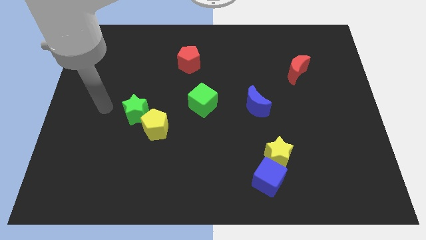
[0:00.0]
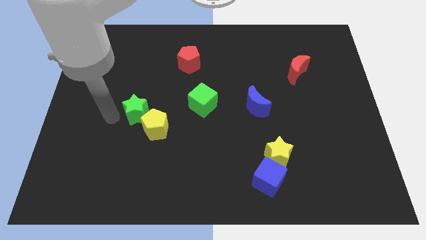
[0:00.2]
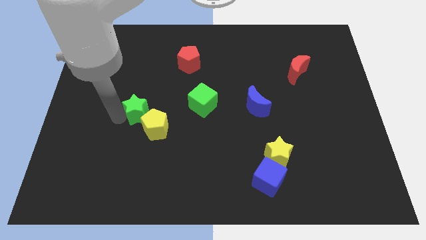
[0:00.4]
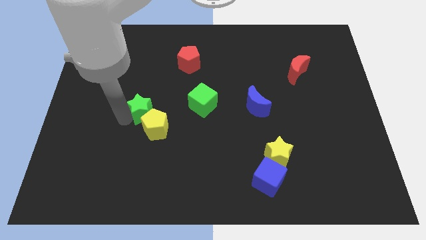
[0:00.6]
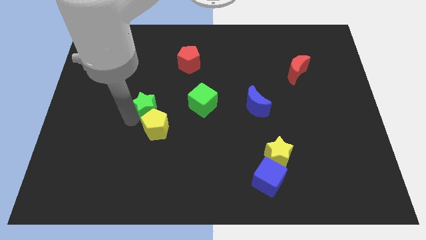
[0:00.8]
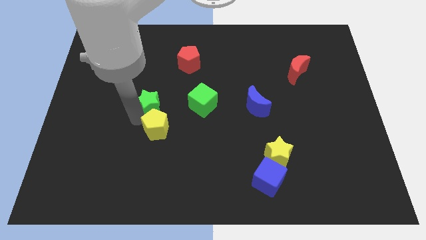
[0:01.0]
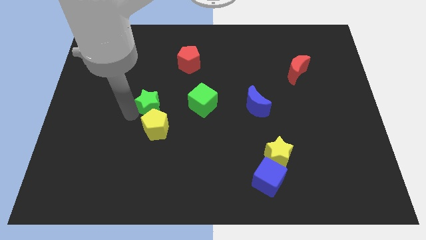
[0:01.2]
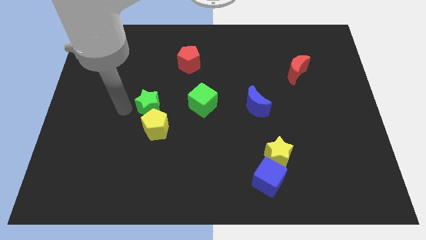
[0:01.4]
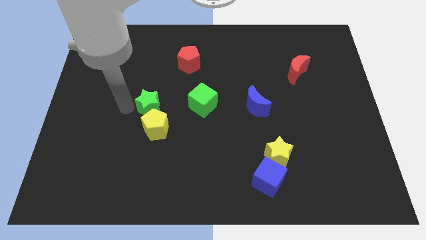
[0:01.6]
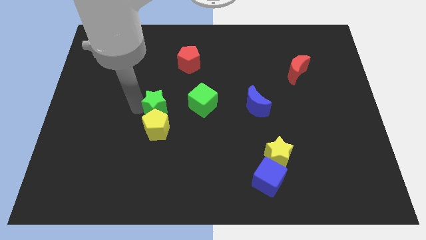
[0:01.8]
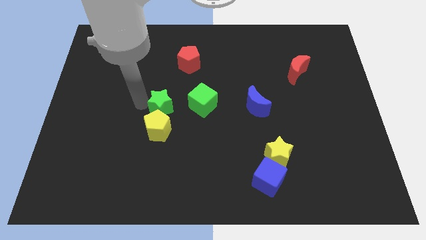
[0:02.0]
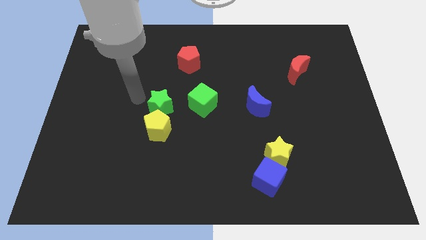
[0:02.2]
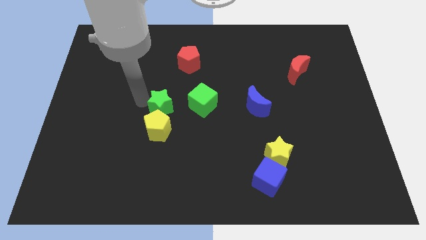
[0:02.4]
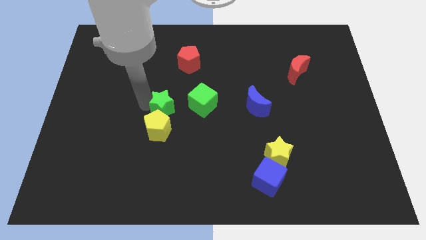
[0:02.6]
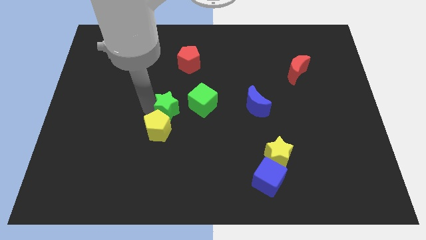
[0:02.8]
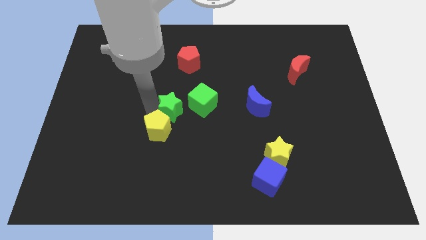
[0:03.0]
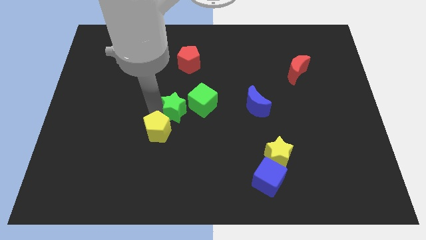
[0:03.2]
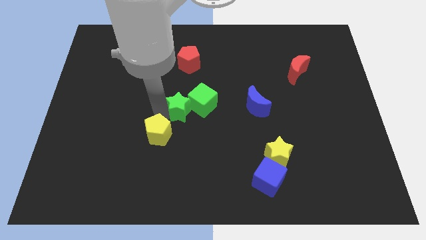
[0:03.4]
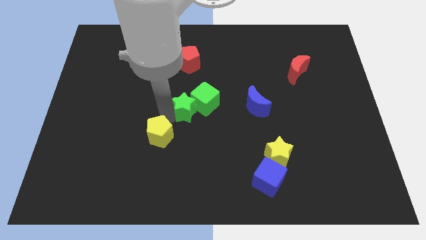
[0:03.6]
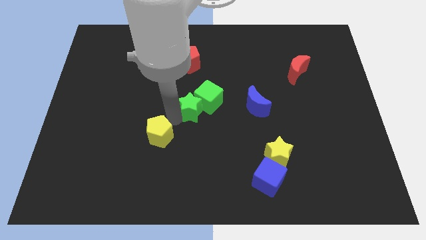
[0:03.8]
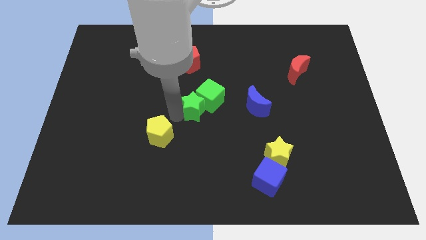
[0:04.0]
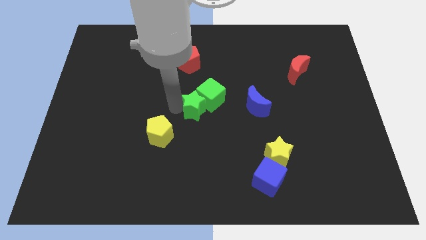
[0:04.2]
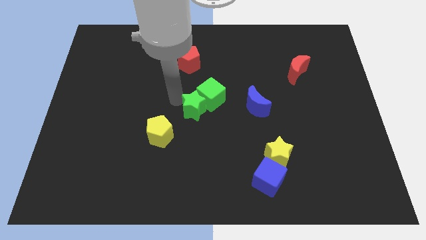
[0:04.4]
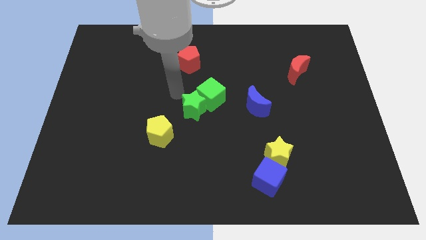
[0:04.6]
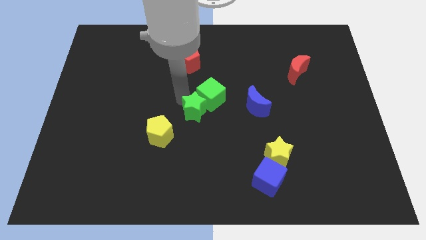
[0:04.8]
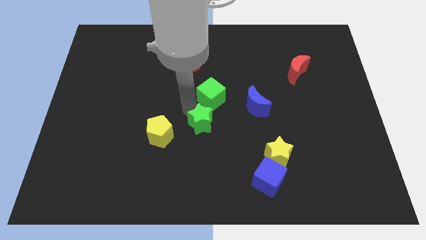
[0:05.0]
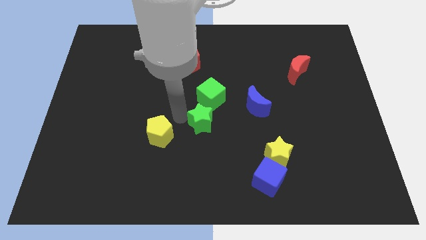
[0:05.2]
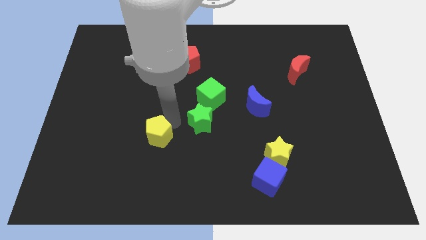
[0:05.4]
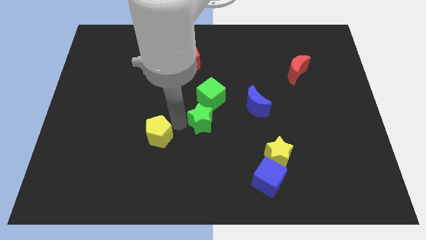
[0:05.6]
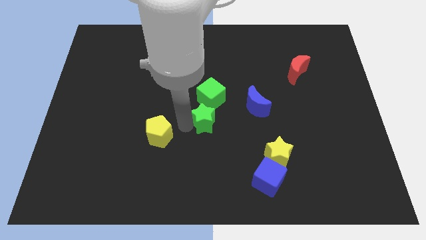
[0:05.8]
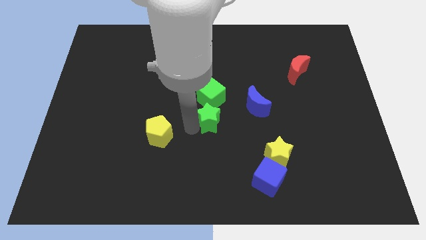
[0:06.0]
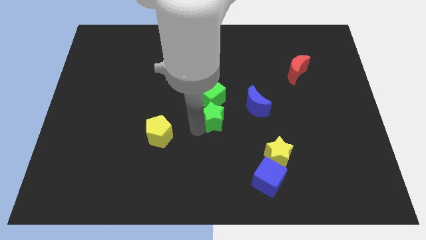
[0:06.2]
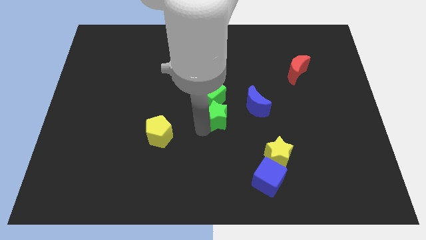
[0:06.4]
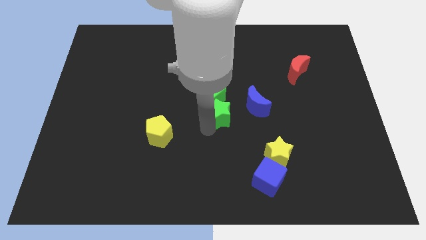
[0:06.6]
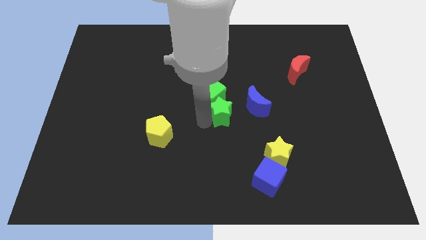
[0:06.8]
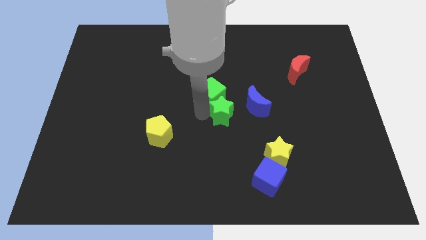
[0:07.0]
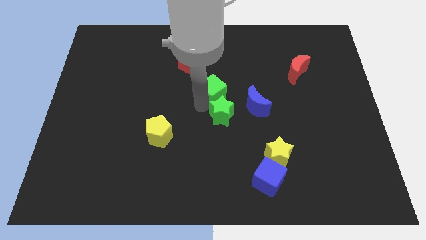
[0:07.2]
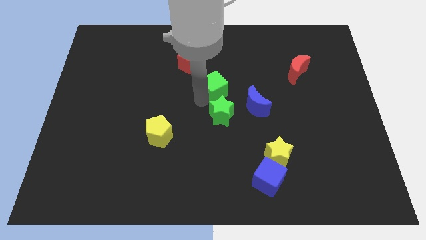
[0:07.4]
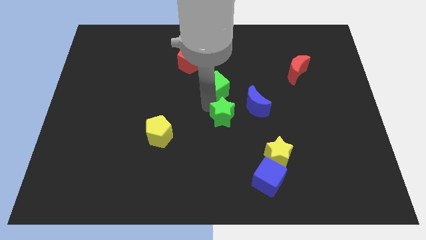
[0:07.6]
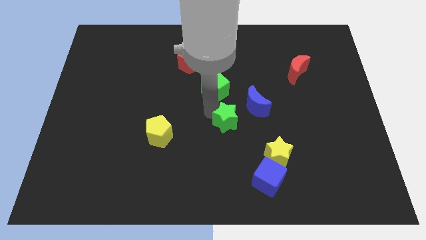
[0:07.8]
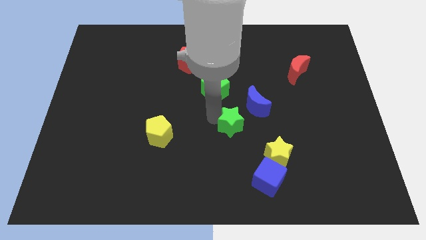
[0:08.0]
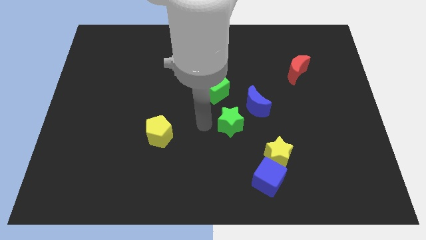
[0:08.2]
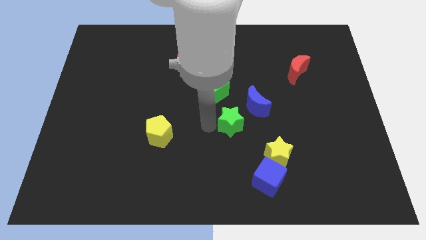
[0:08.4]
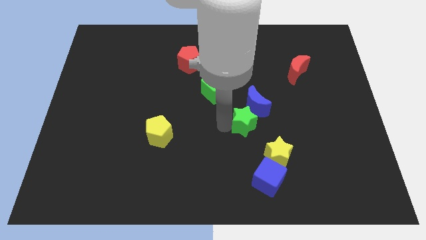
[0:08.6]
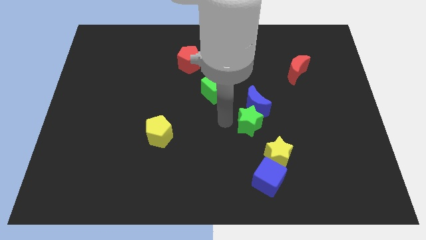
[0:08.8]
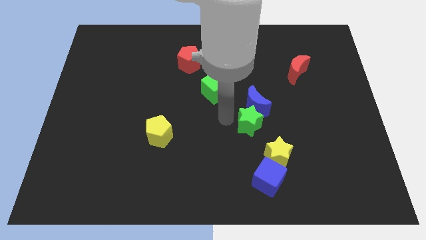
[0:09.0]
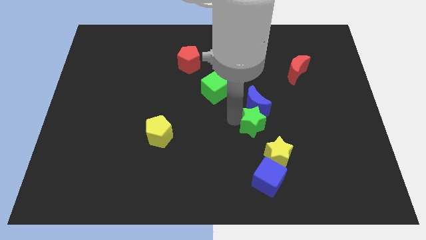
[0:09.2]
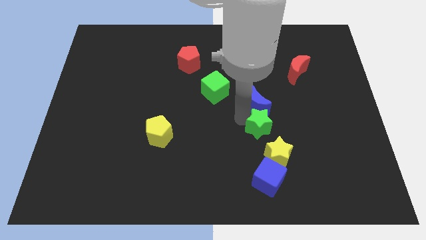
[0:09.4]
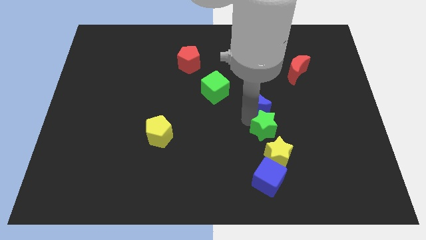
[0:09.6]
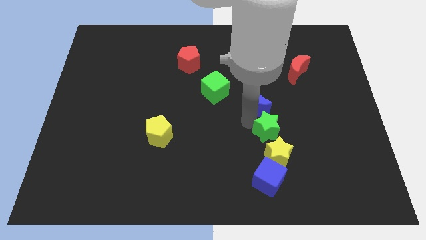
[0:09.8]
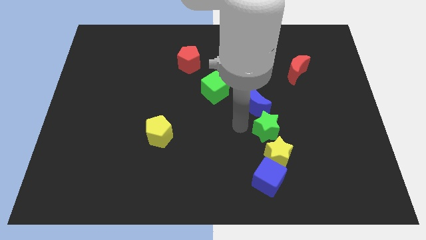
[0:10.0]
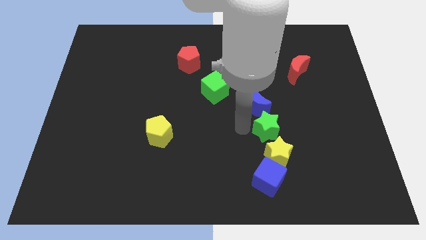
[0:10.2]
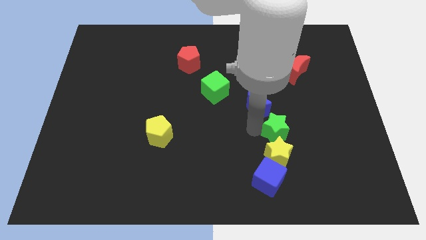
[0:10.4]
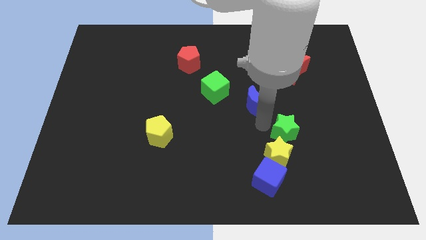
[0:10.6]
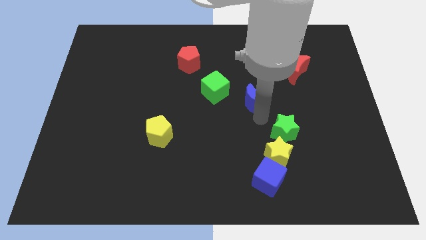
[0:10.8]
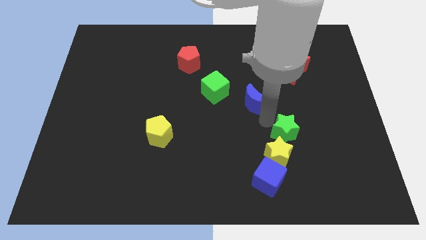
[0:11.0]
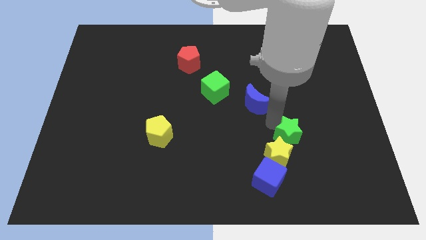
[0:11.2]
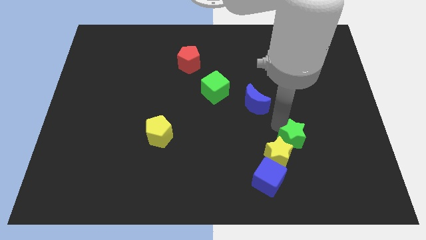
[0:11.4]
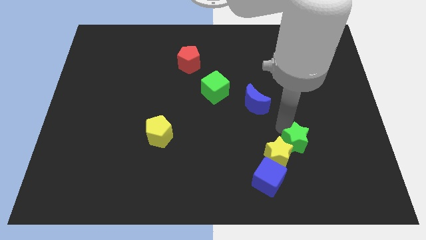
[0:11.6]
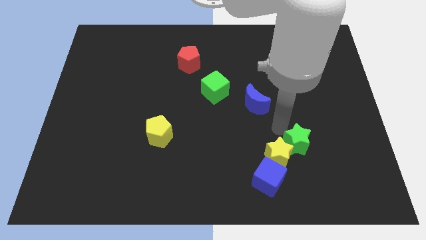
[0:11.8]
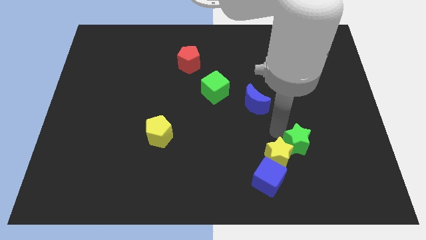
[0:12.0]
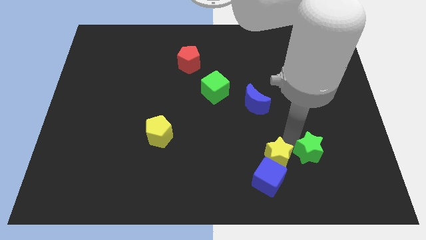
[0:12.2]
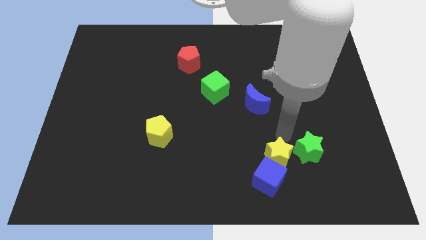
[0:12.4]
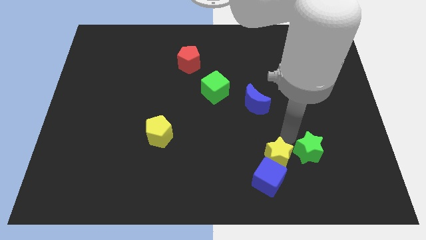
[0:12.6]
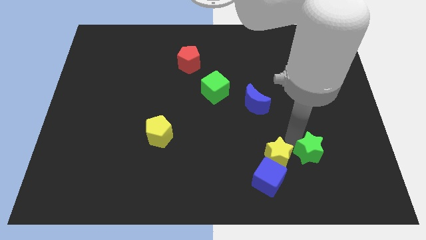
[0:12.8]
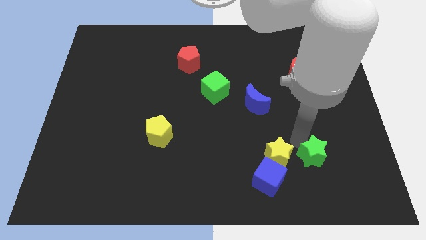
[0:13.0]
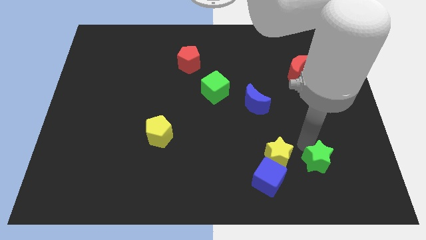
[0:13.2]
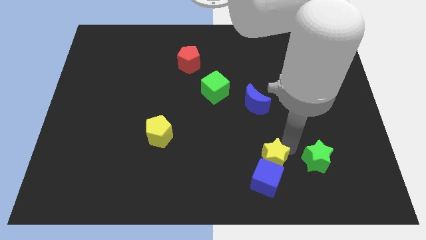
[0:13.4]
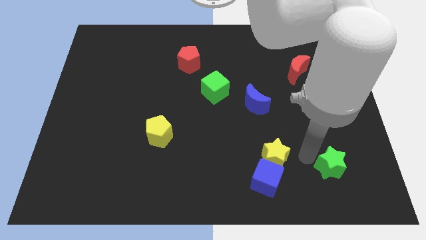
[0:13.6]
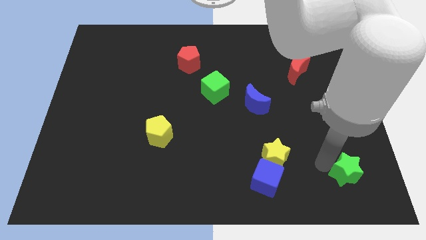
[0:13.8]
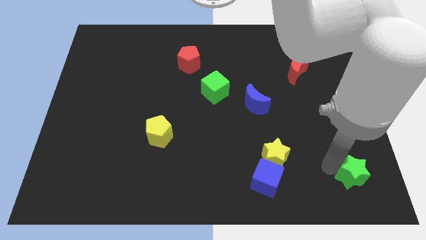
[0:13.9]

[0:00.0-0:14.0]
move the green star to the bottom right corner
